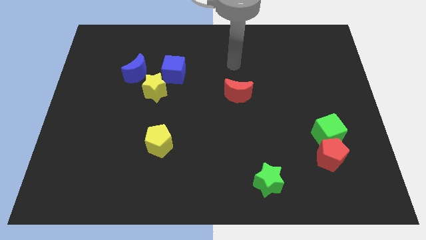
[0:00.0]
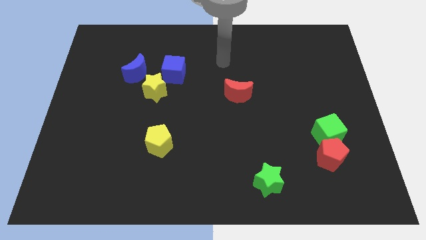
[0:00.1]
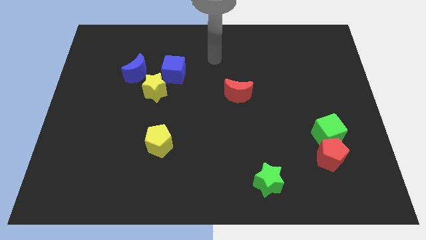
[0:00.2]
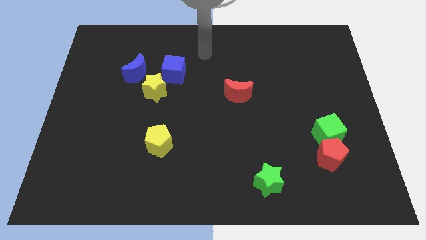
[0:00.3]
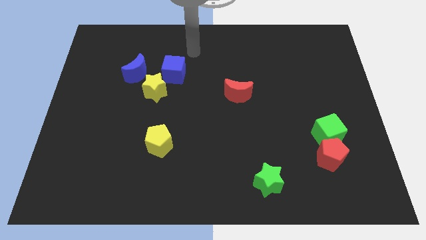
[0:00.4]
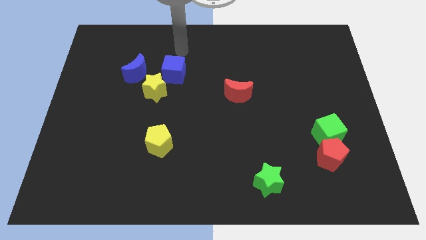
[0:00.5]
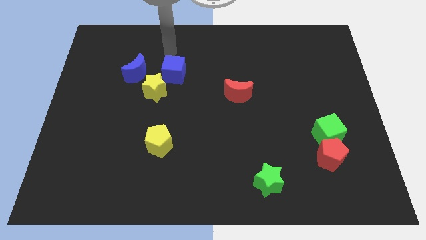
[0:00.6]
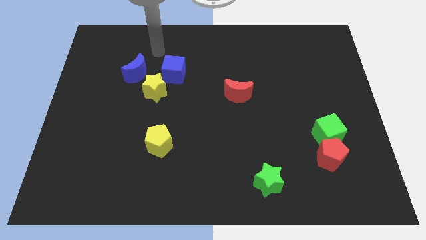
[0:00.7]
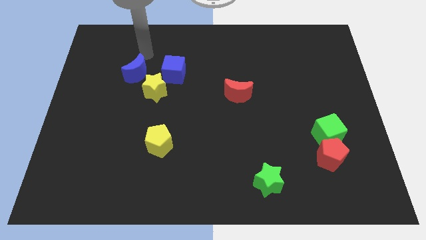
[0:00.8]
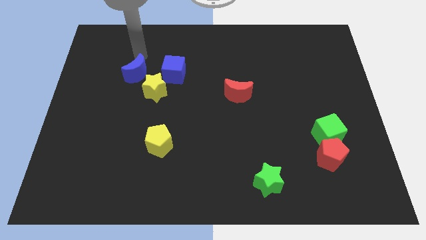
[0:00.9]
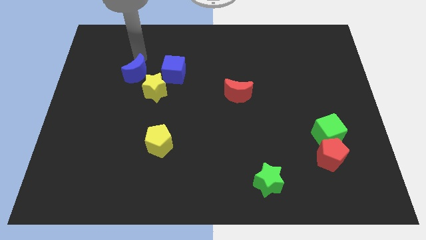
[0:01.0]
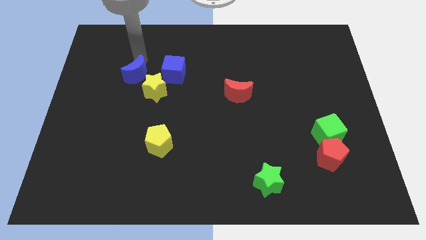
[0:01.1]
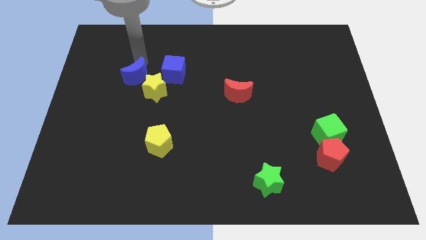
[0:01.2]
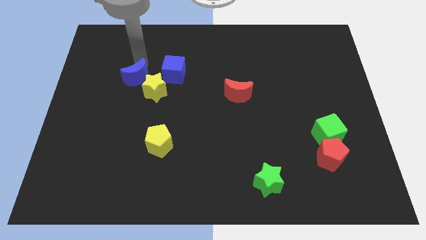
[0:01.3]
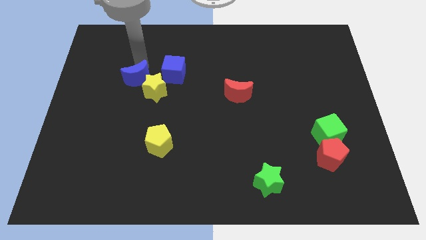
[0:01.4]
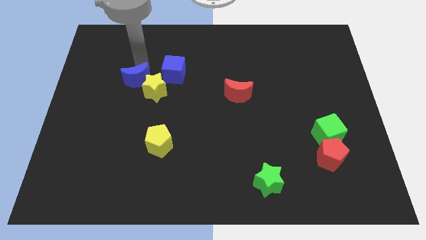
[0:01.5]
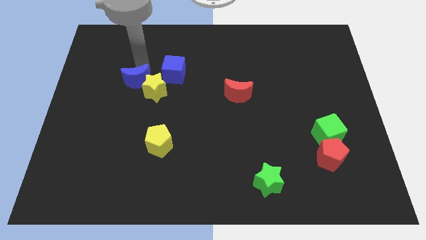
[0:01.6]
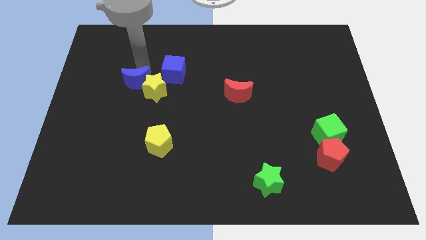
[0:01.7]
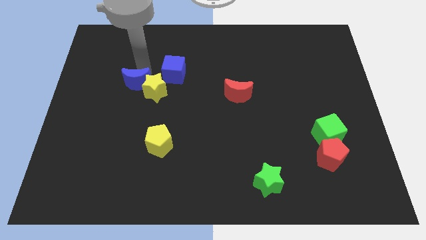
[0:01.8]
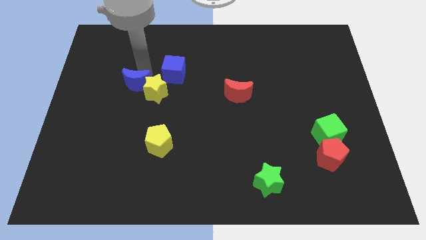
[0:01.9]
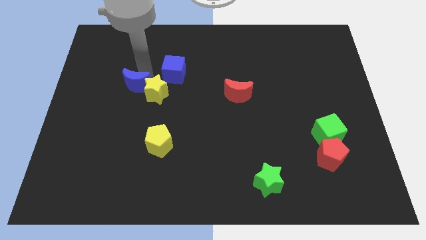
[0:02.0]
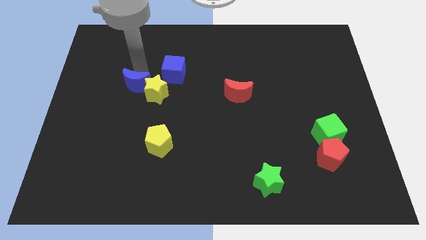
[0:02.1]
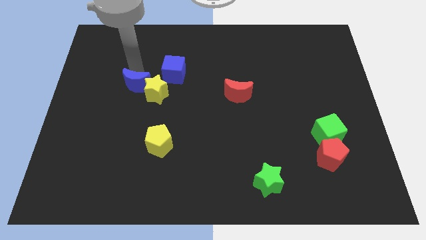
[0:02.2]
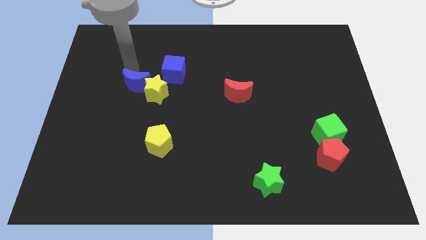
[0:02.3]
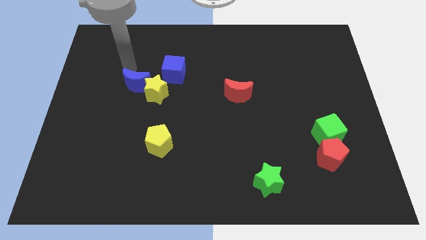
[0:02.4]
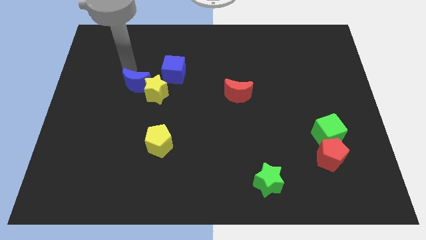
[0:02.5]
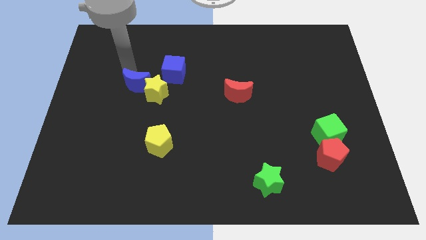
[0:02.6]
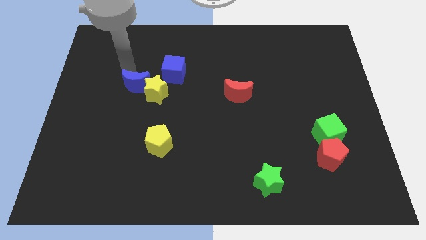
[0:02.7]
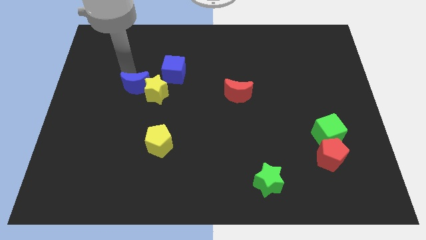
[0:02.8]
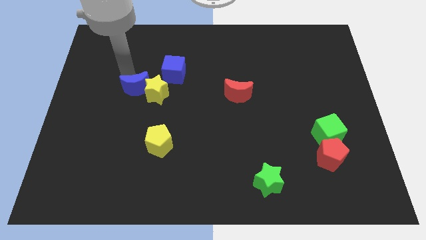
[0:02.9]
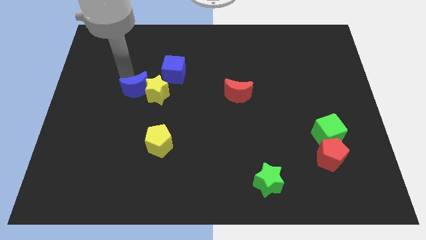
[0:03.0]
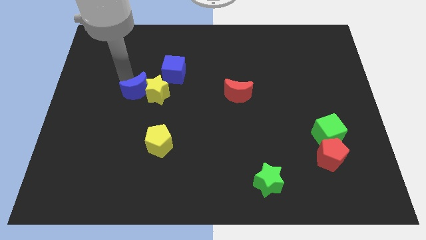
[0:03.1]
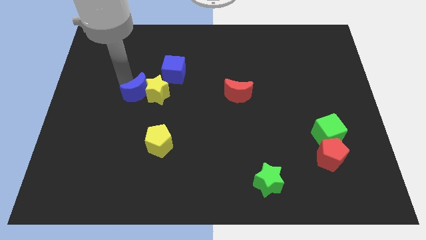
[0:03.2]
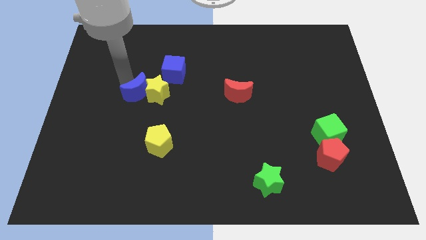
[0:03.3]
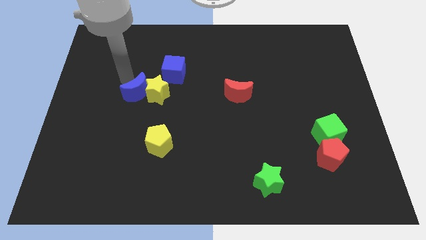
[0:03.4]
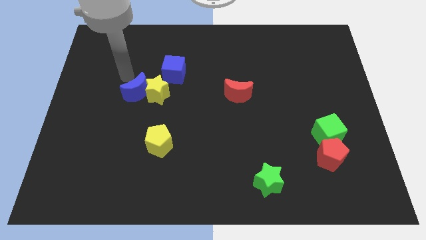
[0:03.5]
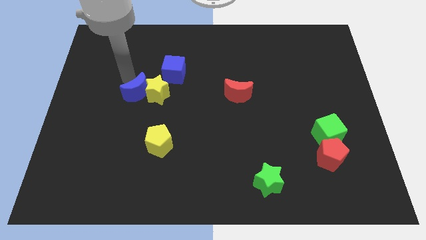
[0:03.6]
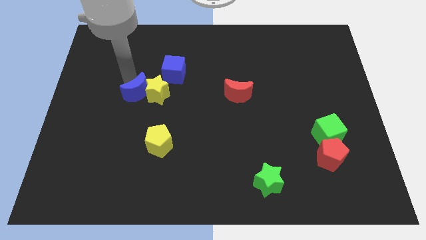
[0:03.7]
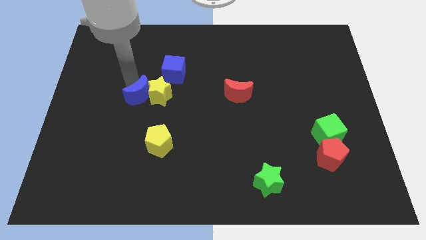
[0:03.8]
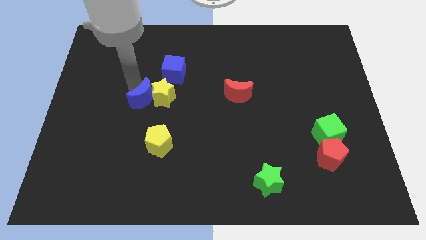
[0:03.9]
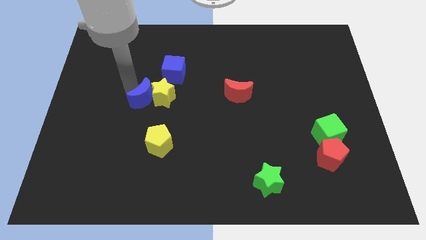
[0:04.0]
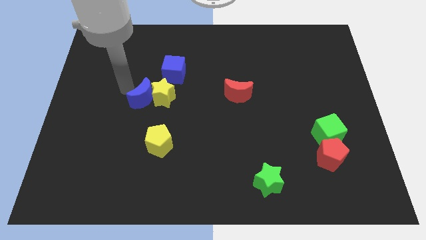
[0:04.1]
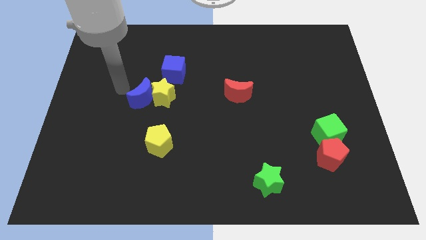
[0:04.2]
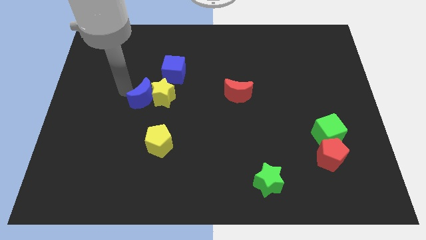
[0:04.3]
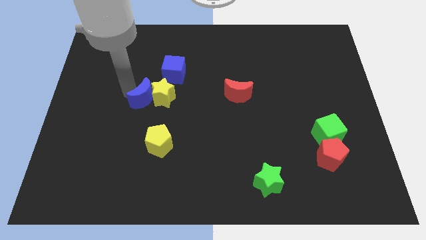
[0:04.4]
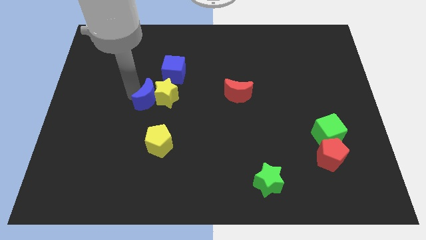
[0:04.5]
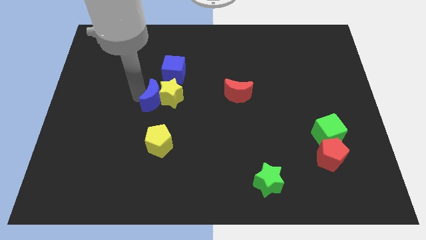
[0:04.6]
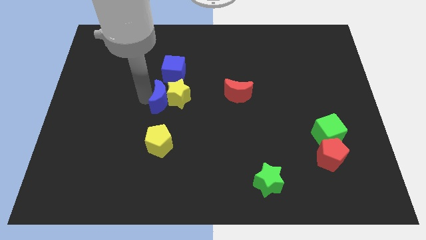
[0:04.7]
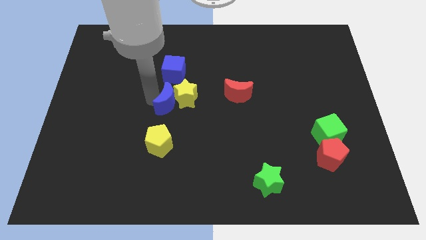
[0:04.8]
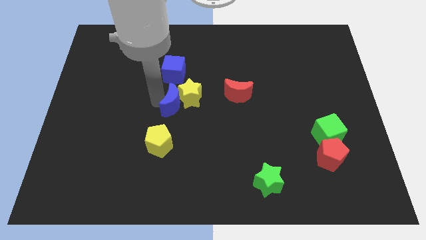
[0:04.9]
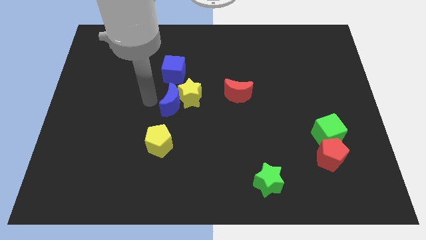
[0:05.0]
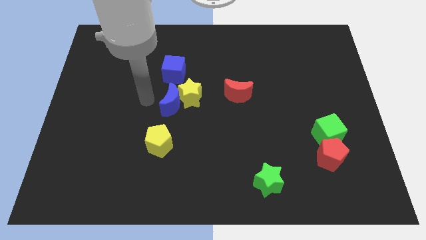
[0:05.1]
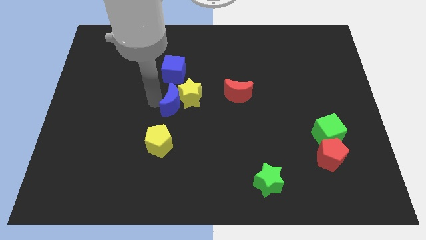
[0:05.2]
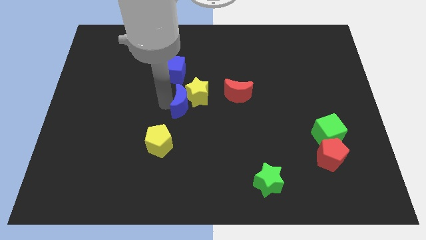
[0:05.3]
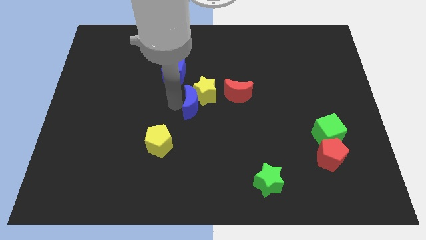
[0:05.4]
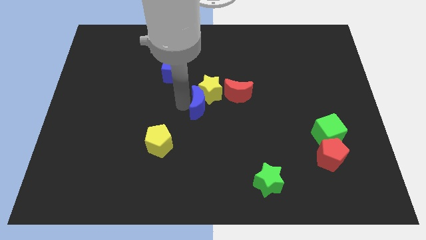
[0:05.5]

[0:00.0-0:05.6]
push the blue moon to the bottom left of the red moon

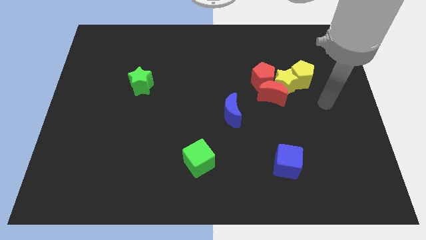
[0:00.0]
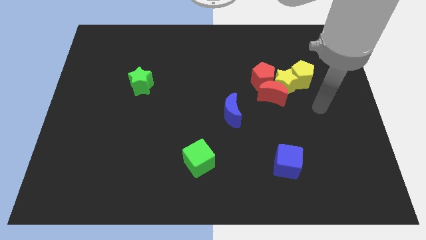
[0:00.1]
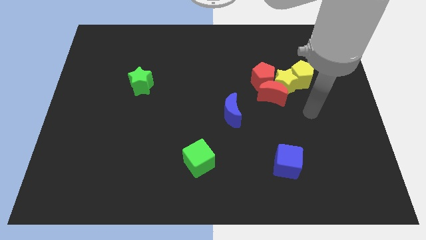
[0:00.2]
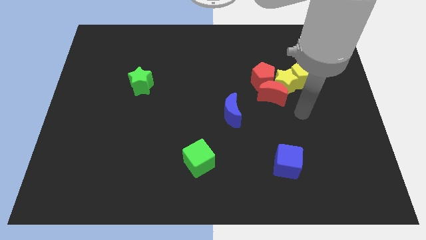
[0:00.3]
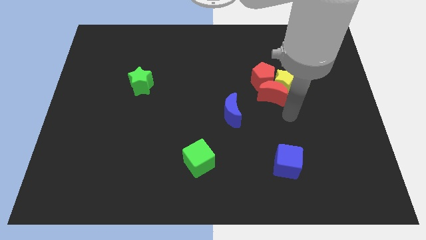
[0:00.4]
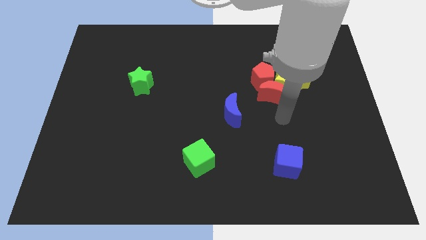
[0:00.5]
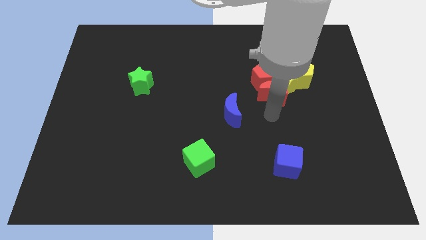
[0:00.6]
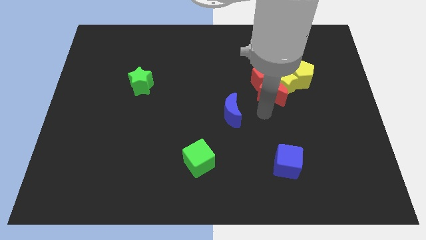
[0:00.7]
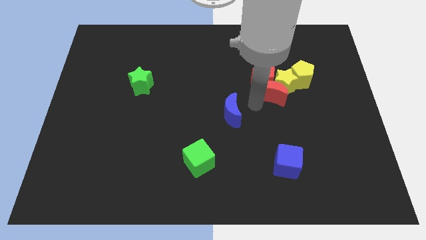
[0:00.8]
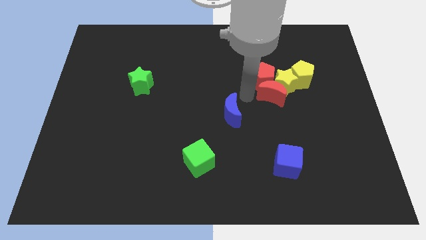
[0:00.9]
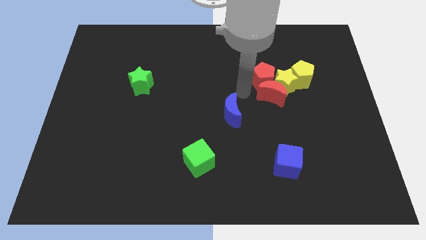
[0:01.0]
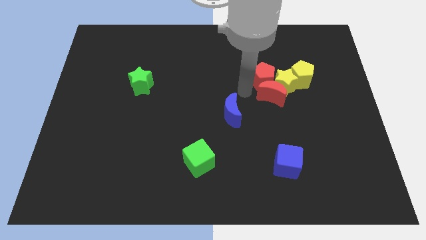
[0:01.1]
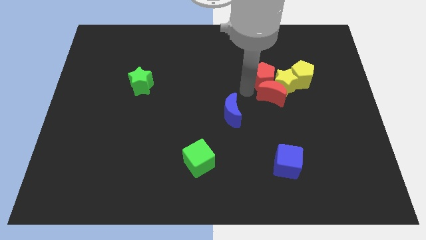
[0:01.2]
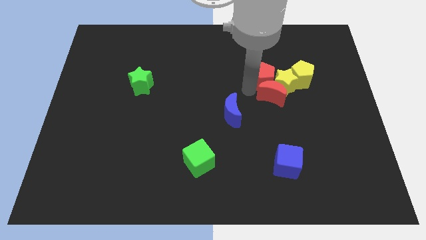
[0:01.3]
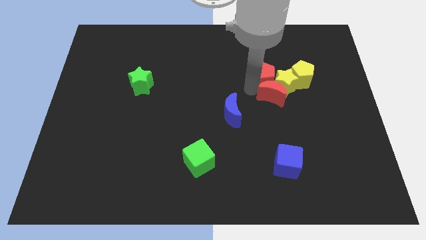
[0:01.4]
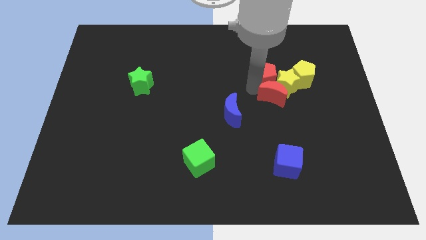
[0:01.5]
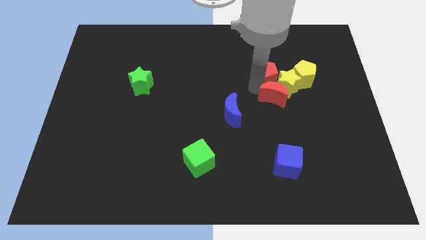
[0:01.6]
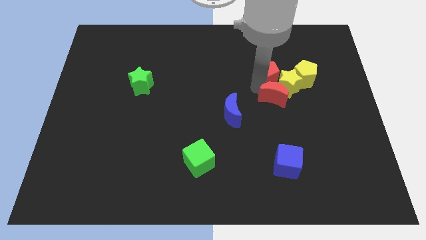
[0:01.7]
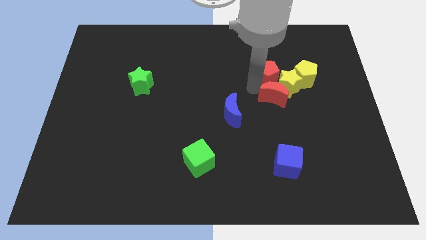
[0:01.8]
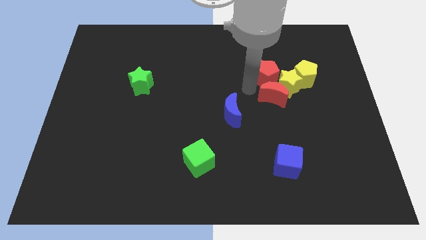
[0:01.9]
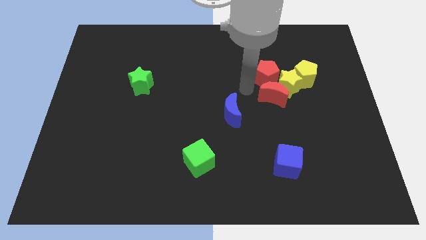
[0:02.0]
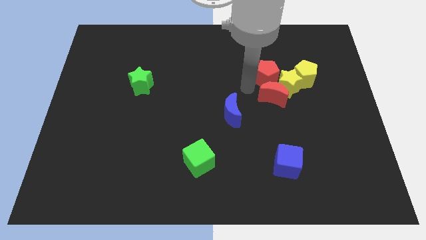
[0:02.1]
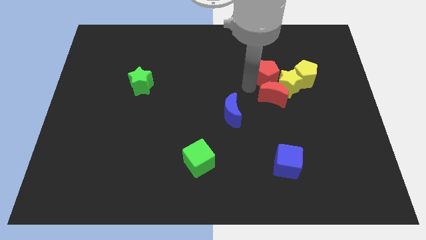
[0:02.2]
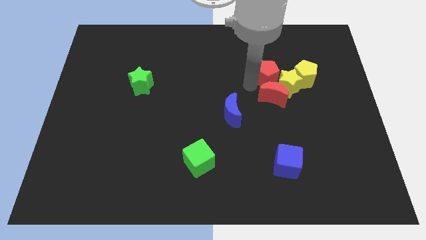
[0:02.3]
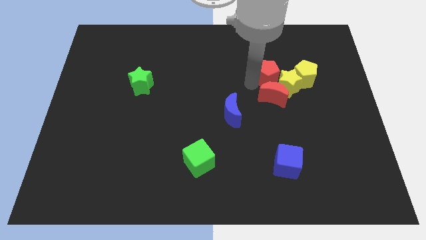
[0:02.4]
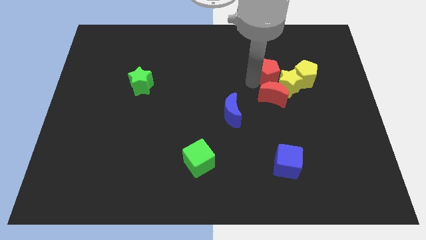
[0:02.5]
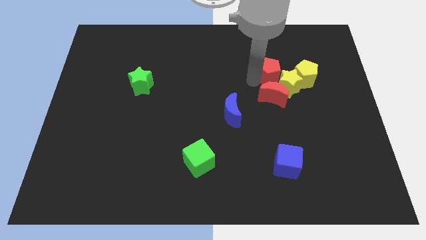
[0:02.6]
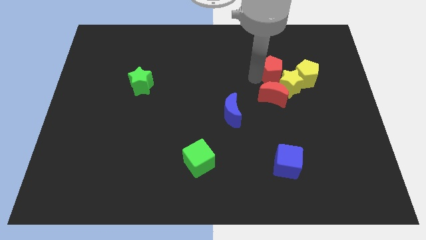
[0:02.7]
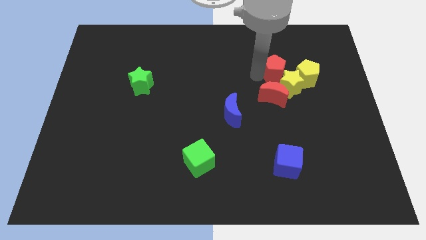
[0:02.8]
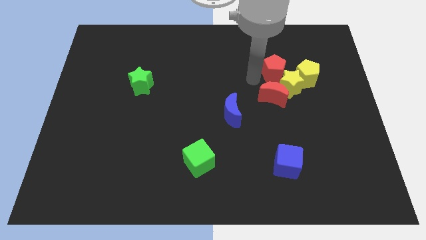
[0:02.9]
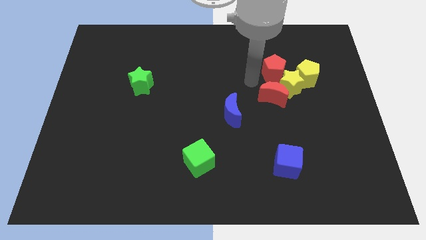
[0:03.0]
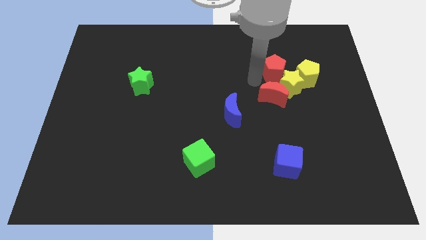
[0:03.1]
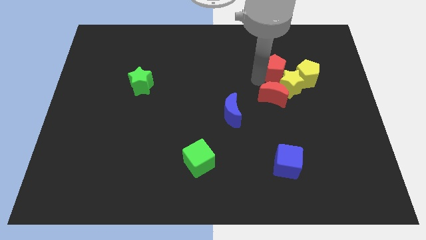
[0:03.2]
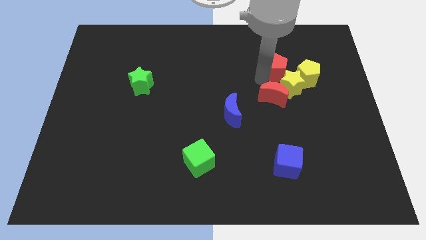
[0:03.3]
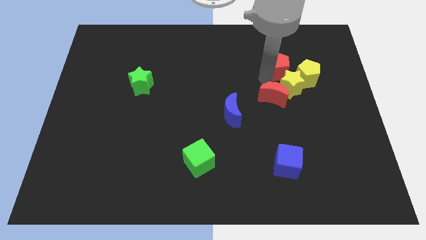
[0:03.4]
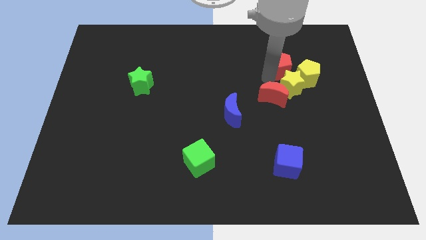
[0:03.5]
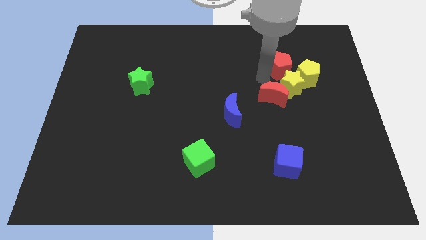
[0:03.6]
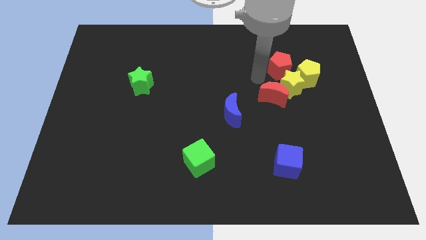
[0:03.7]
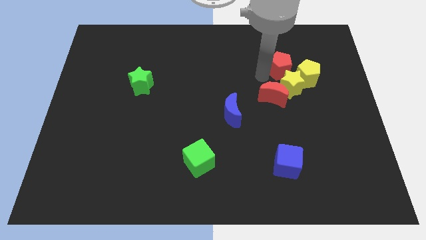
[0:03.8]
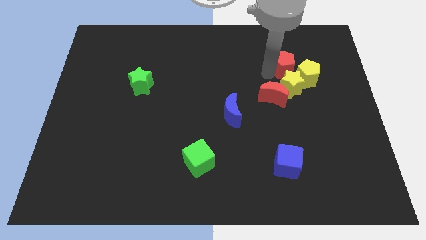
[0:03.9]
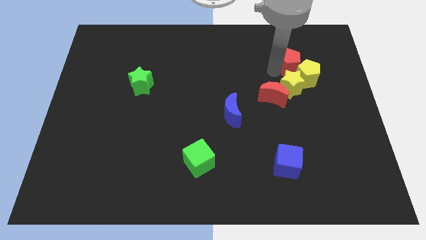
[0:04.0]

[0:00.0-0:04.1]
push the red pentagon to the top right side of the yellow star
